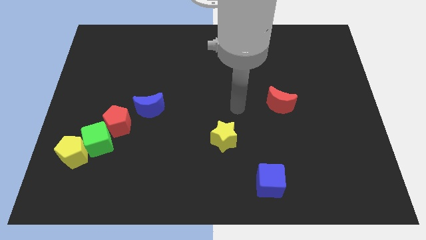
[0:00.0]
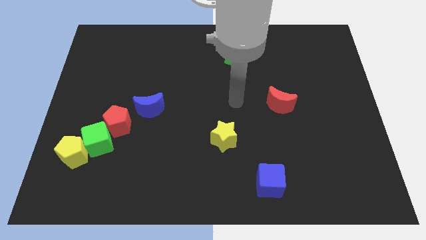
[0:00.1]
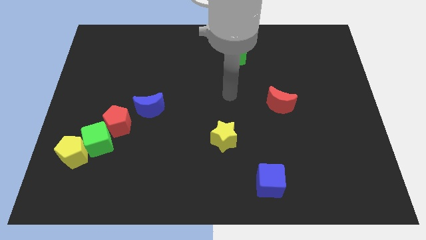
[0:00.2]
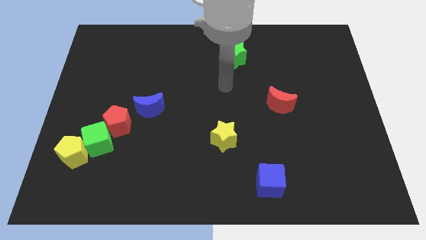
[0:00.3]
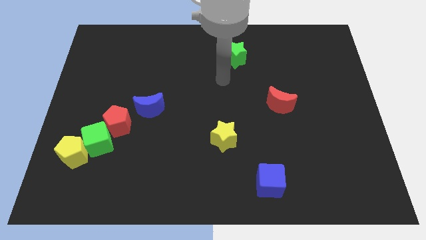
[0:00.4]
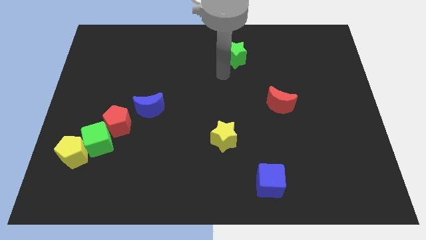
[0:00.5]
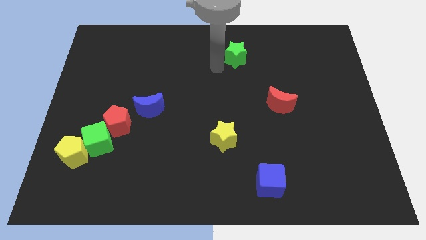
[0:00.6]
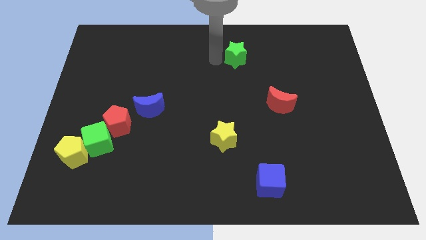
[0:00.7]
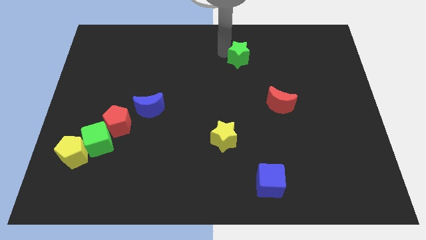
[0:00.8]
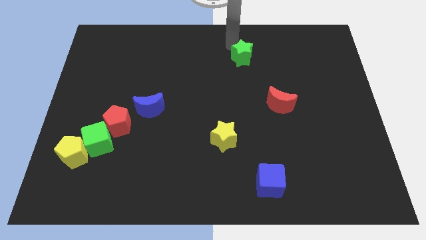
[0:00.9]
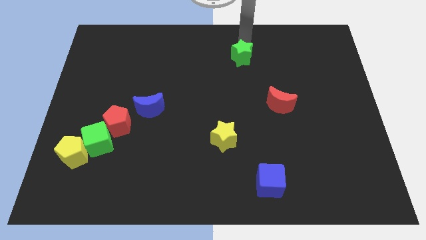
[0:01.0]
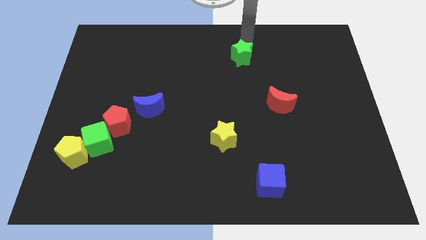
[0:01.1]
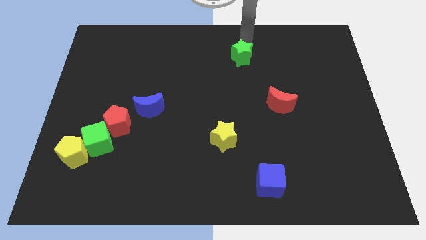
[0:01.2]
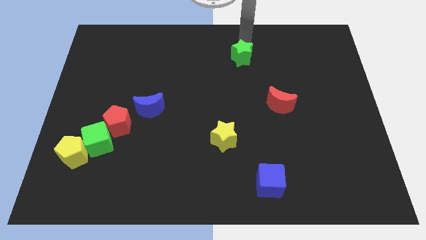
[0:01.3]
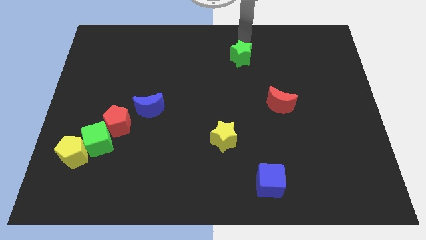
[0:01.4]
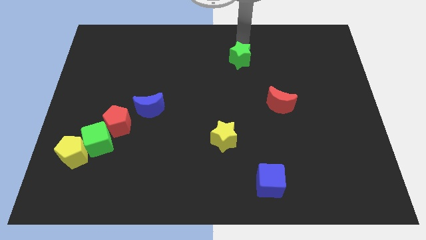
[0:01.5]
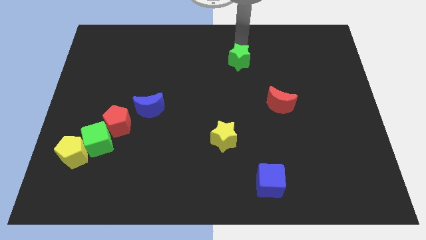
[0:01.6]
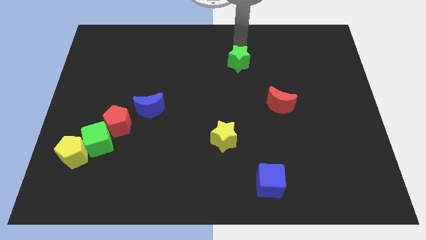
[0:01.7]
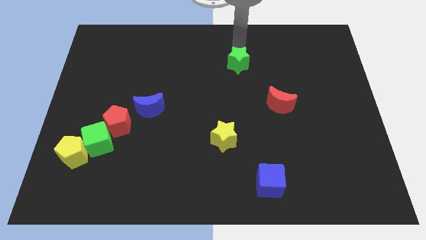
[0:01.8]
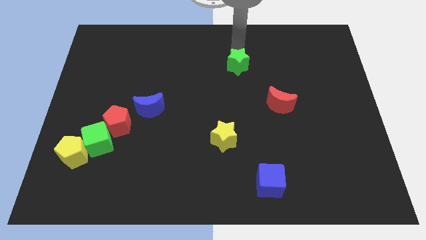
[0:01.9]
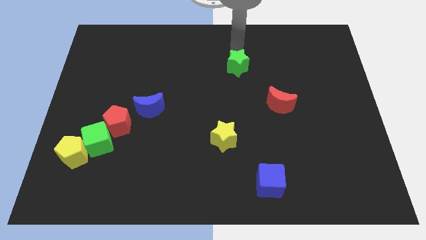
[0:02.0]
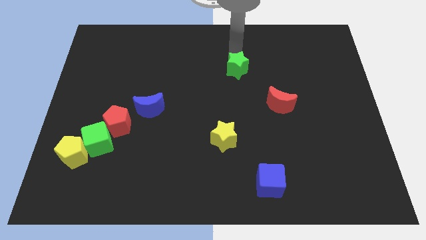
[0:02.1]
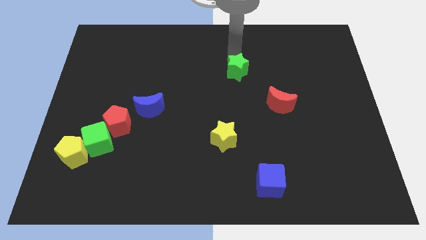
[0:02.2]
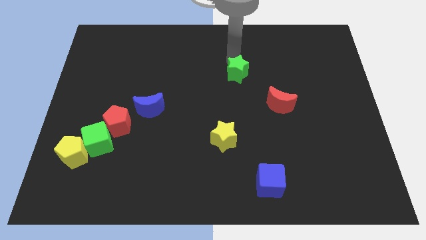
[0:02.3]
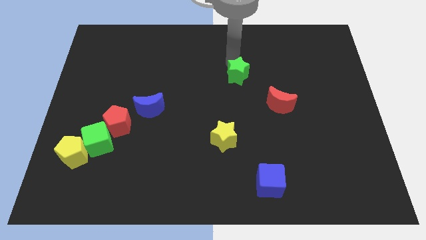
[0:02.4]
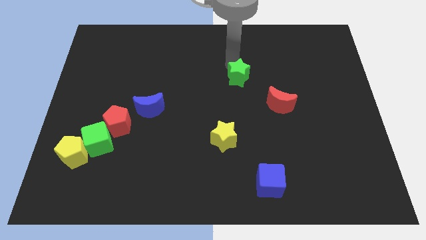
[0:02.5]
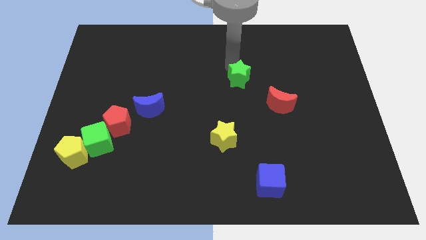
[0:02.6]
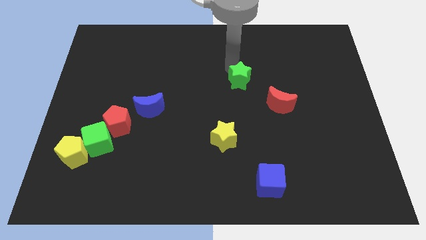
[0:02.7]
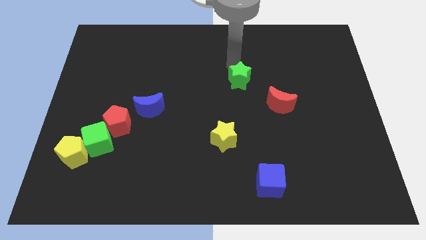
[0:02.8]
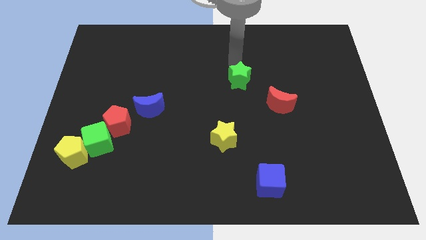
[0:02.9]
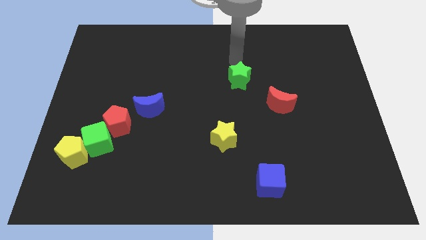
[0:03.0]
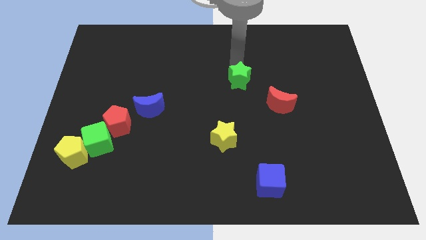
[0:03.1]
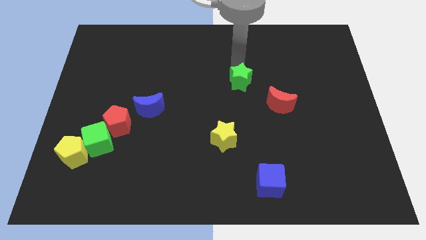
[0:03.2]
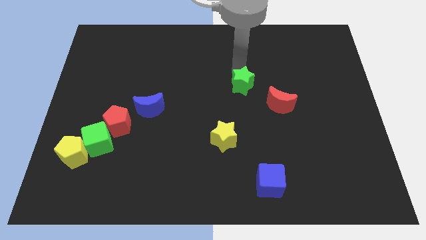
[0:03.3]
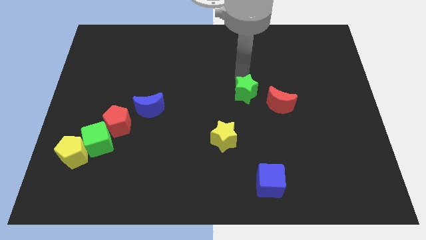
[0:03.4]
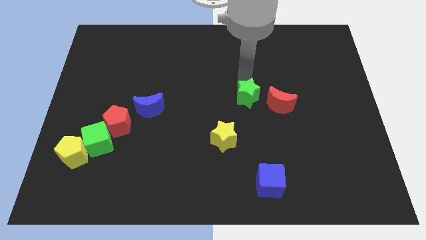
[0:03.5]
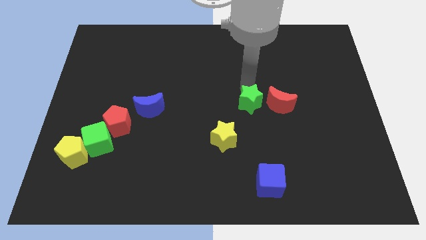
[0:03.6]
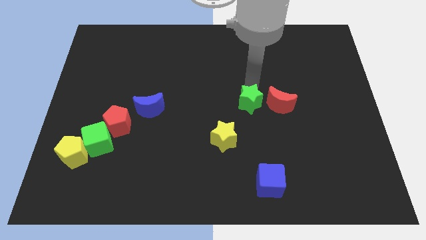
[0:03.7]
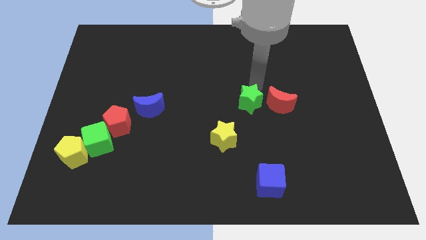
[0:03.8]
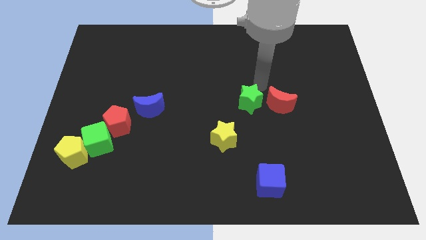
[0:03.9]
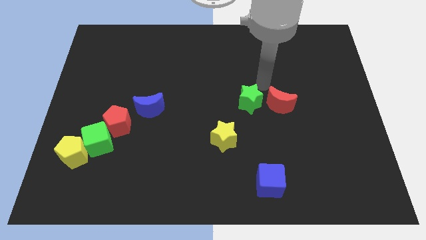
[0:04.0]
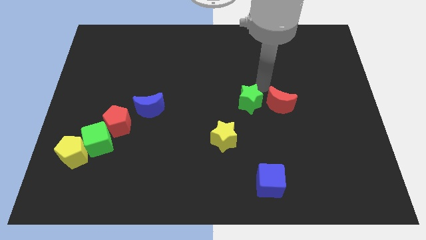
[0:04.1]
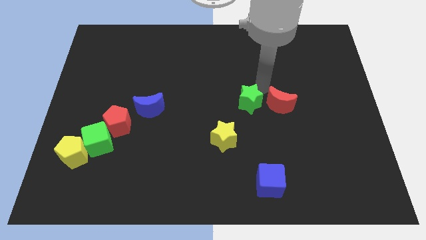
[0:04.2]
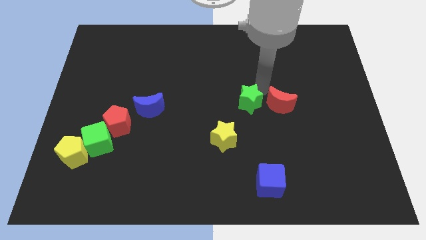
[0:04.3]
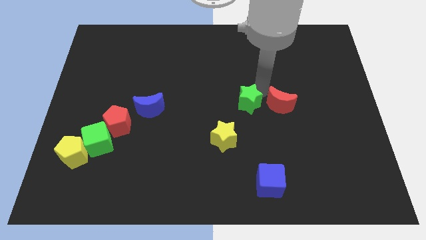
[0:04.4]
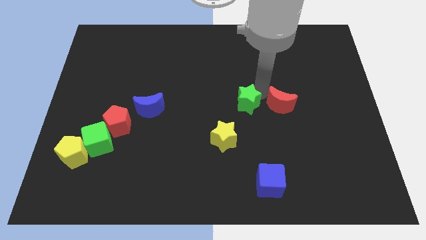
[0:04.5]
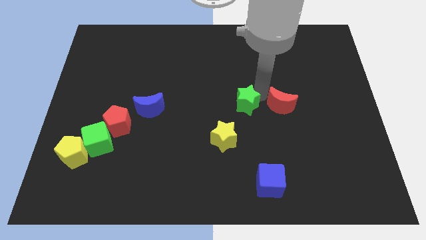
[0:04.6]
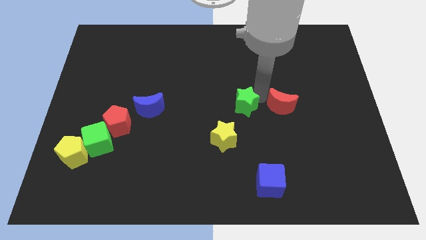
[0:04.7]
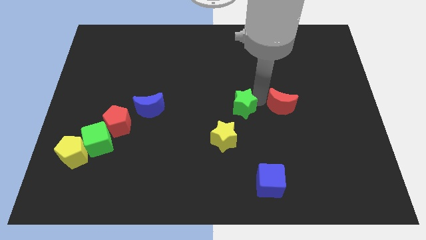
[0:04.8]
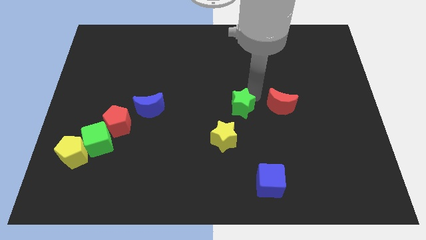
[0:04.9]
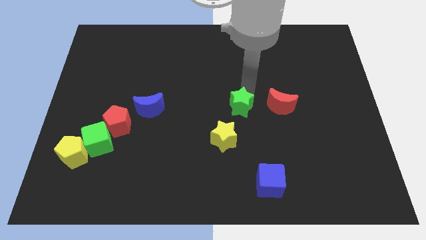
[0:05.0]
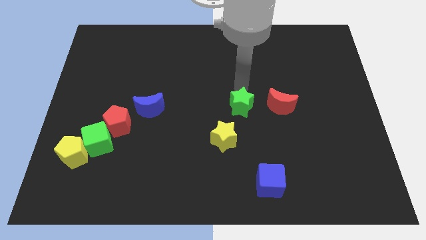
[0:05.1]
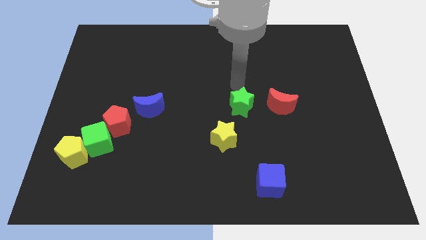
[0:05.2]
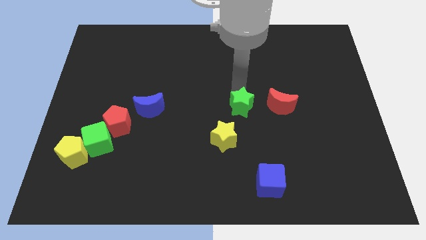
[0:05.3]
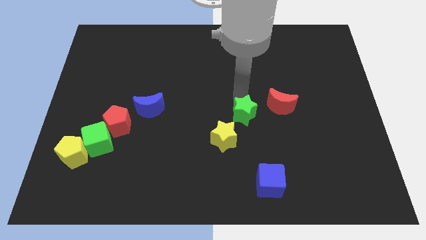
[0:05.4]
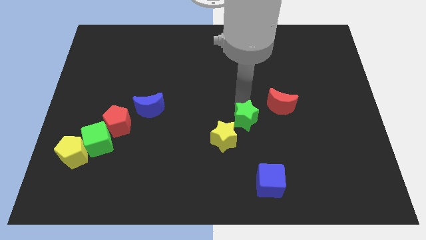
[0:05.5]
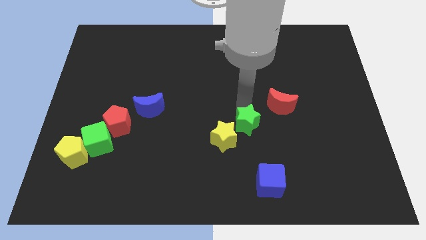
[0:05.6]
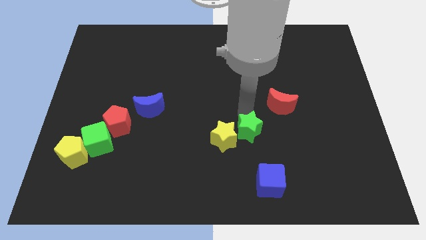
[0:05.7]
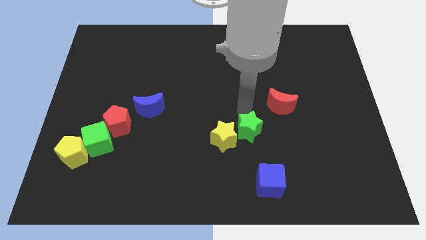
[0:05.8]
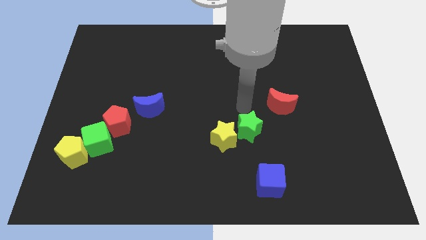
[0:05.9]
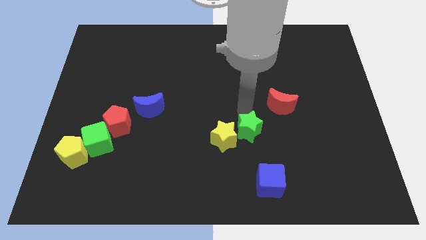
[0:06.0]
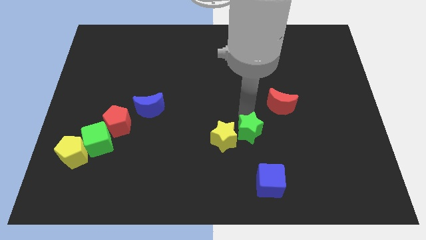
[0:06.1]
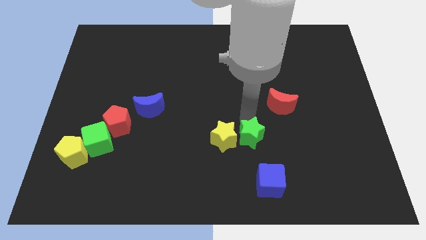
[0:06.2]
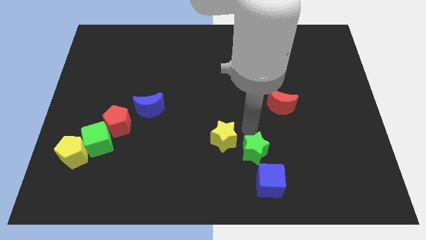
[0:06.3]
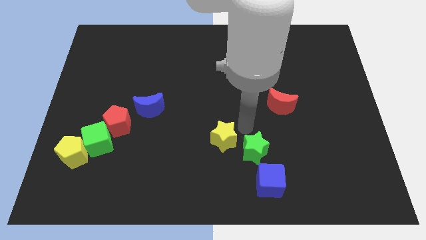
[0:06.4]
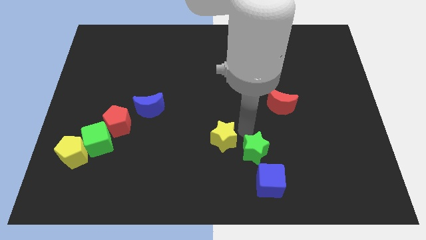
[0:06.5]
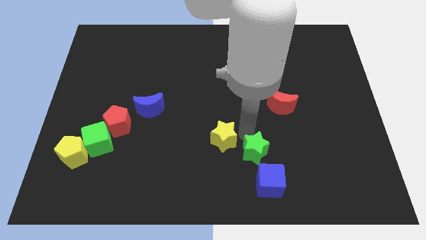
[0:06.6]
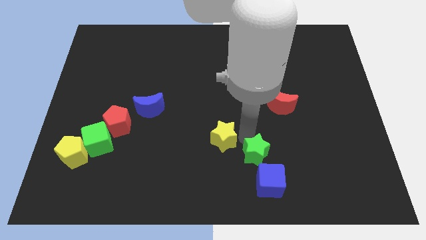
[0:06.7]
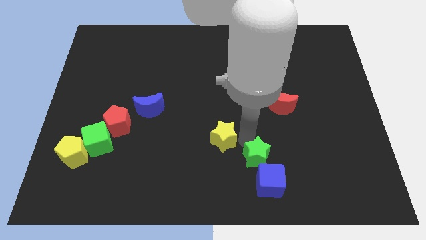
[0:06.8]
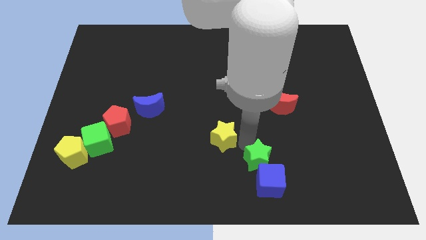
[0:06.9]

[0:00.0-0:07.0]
put the green star towards the blue cube
